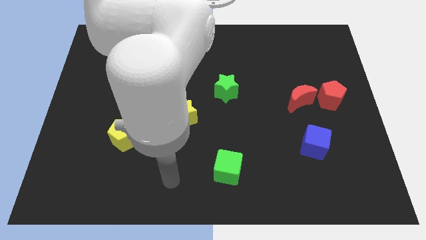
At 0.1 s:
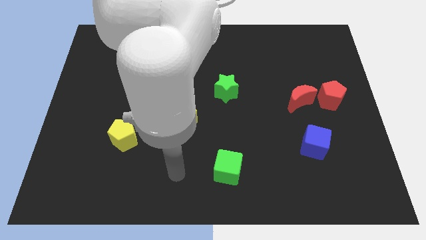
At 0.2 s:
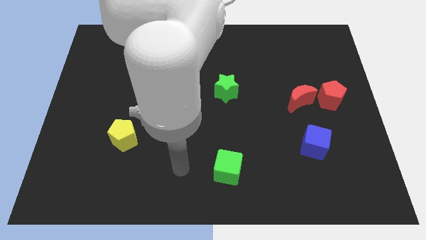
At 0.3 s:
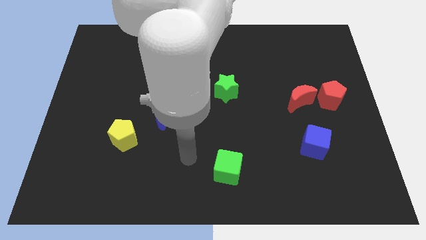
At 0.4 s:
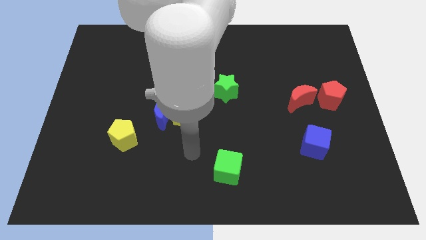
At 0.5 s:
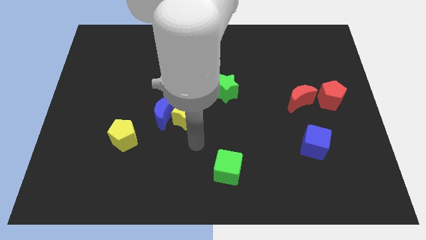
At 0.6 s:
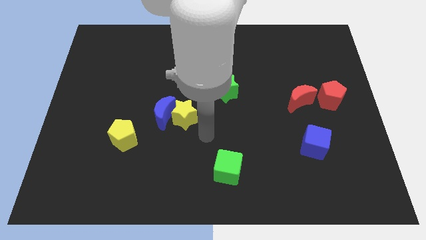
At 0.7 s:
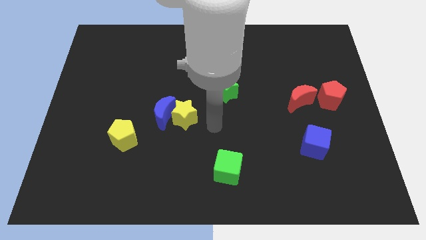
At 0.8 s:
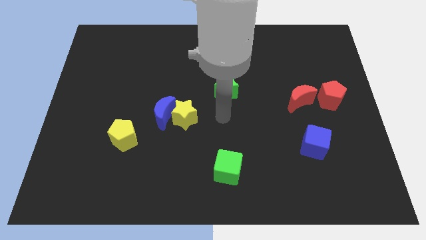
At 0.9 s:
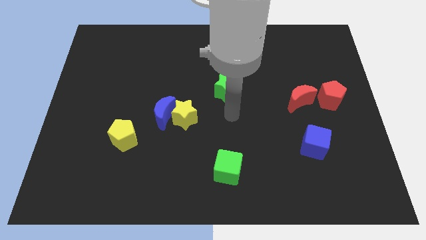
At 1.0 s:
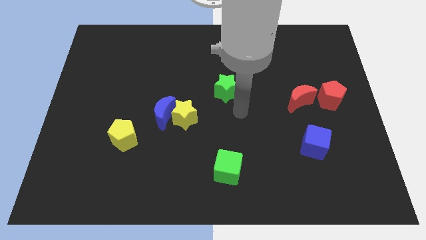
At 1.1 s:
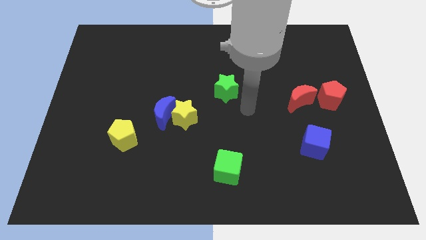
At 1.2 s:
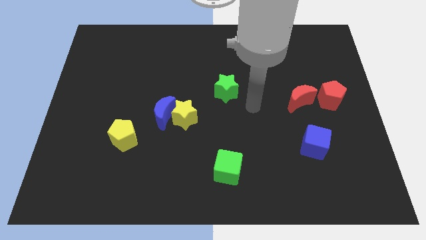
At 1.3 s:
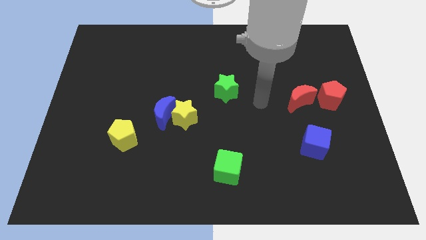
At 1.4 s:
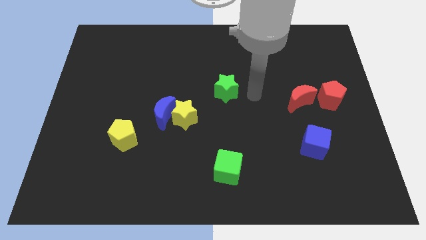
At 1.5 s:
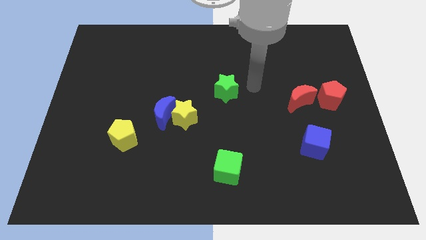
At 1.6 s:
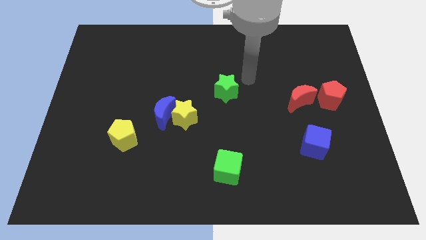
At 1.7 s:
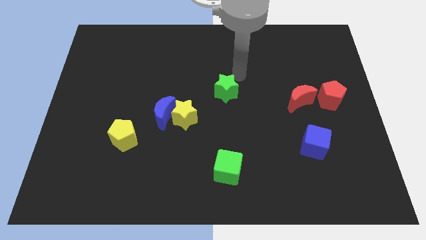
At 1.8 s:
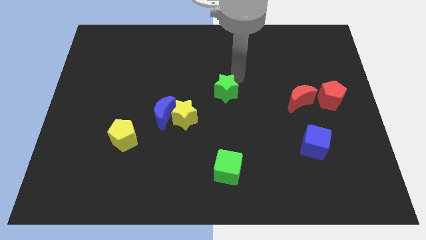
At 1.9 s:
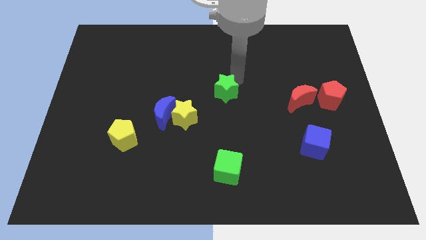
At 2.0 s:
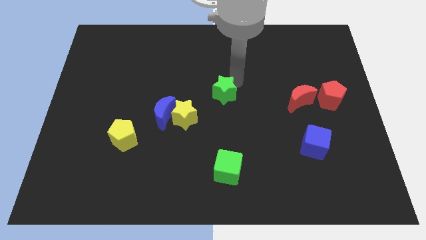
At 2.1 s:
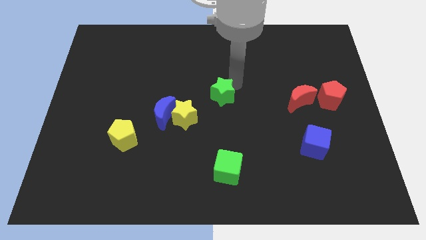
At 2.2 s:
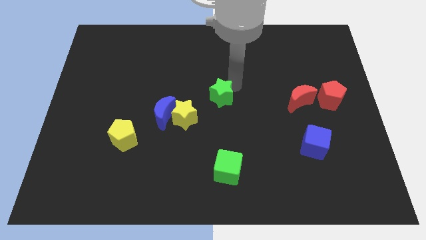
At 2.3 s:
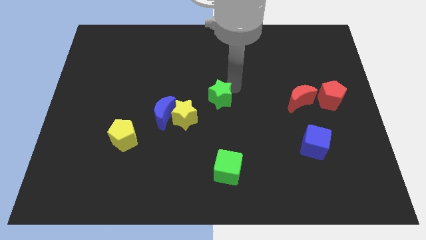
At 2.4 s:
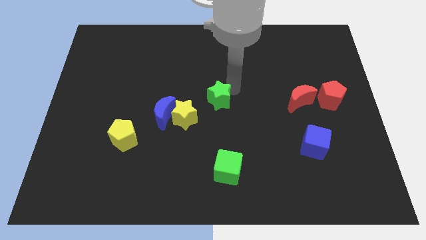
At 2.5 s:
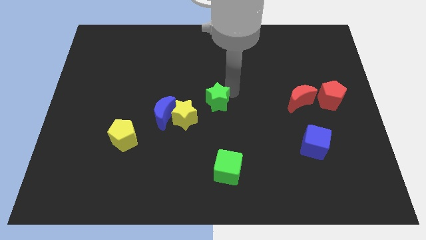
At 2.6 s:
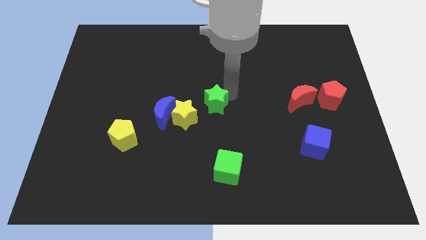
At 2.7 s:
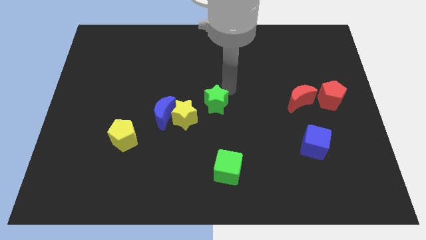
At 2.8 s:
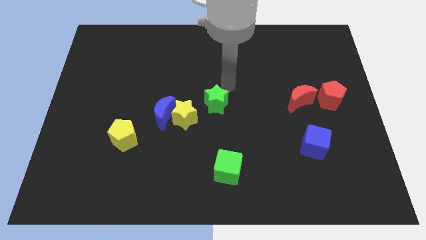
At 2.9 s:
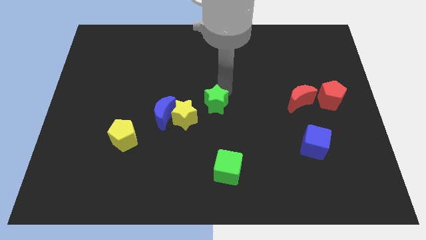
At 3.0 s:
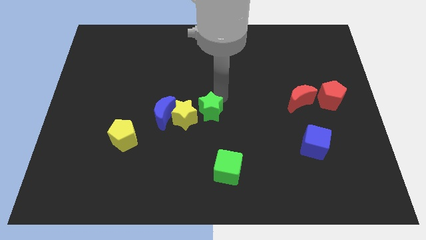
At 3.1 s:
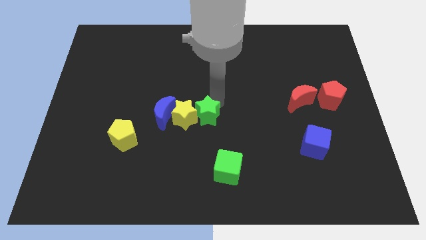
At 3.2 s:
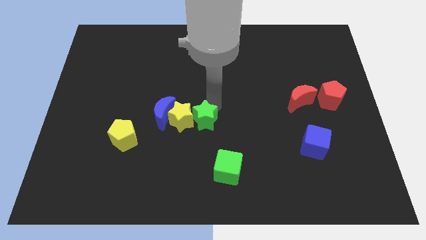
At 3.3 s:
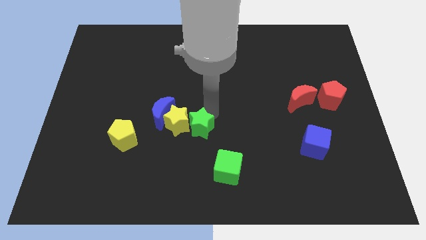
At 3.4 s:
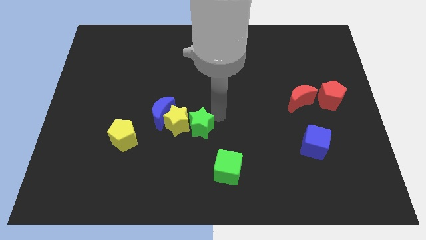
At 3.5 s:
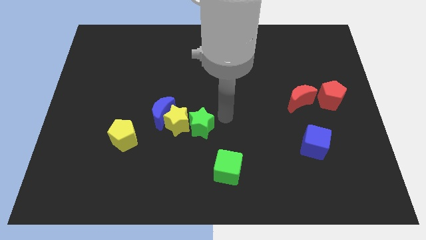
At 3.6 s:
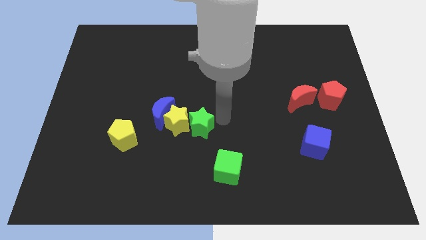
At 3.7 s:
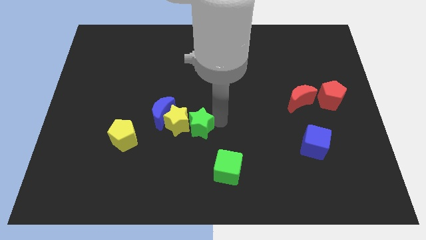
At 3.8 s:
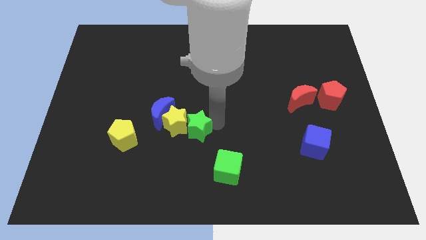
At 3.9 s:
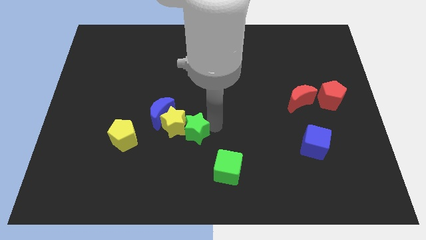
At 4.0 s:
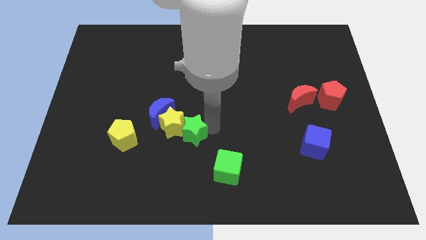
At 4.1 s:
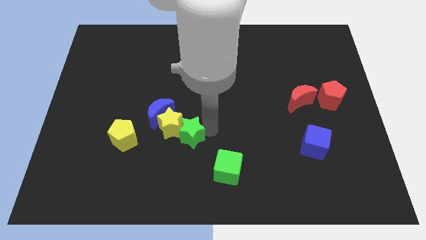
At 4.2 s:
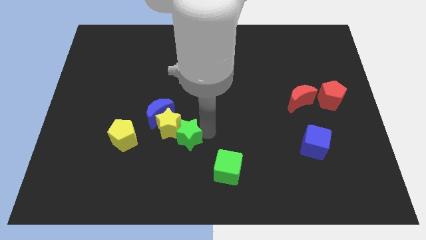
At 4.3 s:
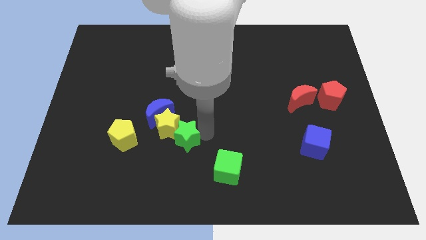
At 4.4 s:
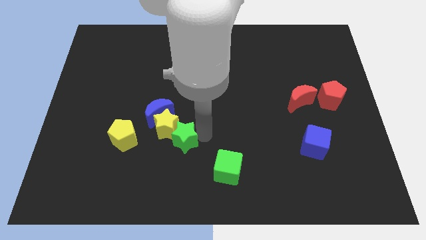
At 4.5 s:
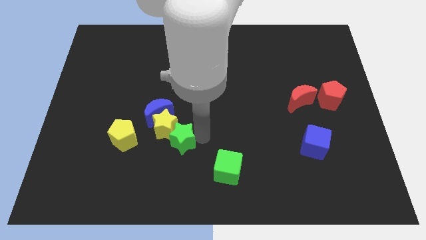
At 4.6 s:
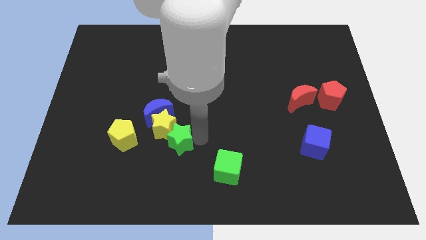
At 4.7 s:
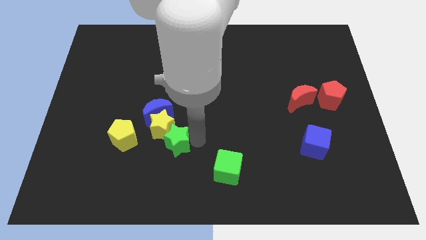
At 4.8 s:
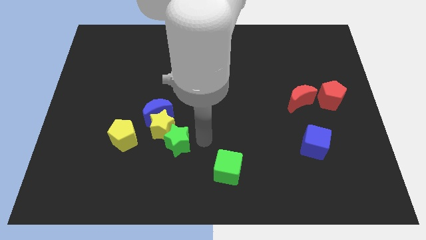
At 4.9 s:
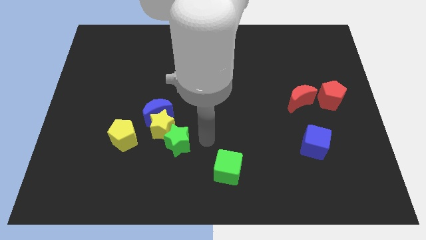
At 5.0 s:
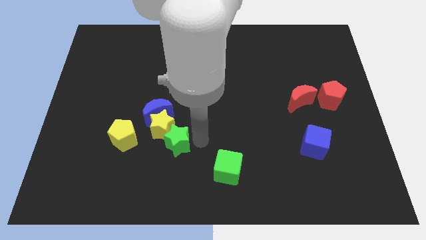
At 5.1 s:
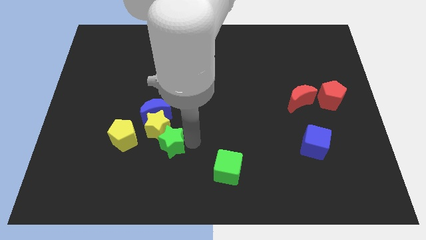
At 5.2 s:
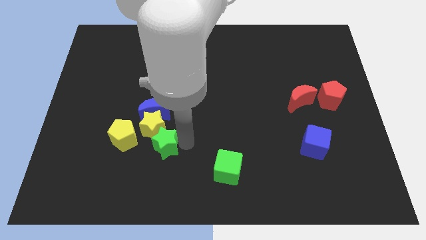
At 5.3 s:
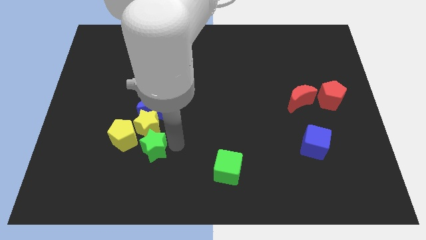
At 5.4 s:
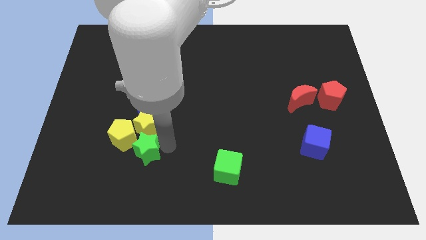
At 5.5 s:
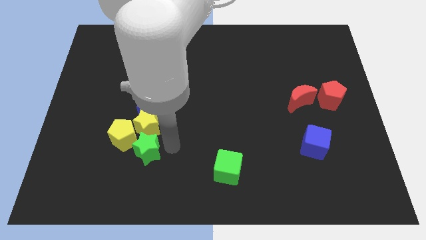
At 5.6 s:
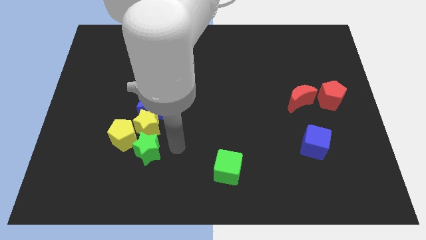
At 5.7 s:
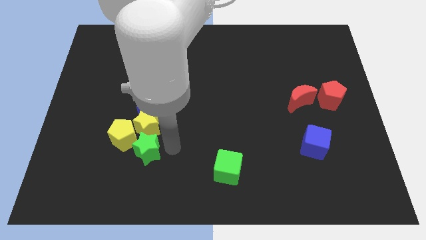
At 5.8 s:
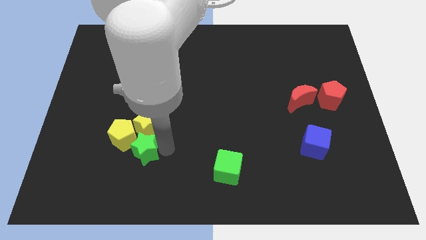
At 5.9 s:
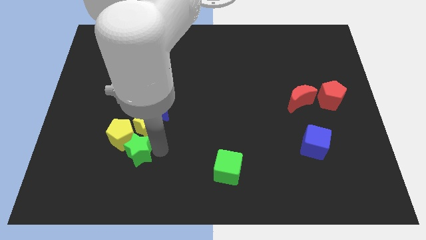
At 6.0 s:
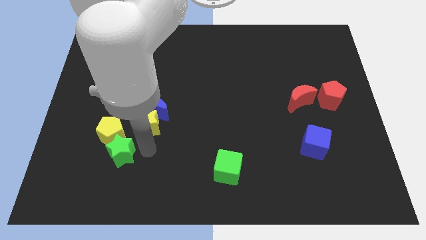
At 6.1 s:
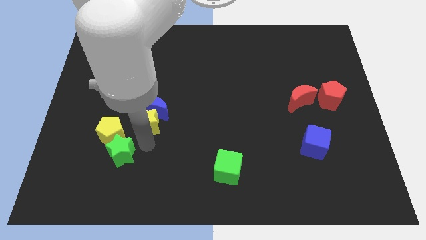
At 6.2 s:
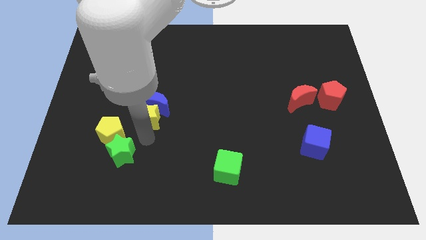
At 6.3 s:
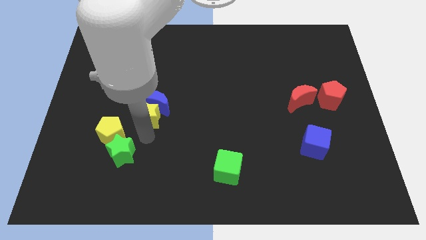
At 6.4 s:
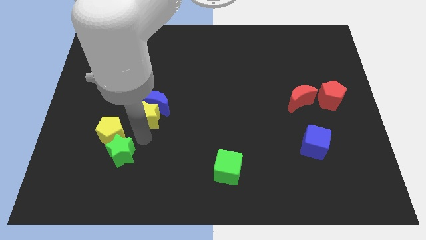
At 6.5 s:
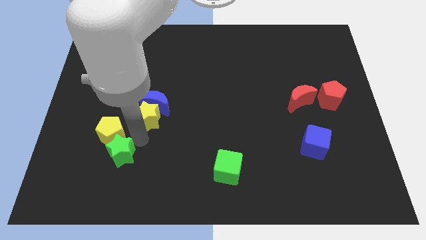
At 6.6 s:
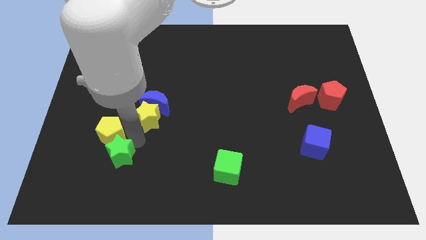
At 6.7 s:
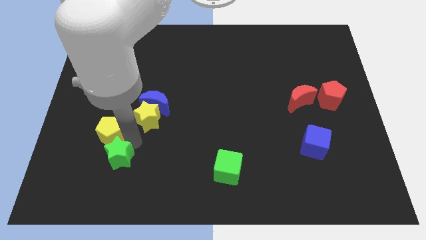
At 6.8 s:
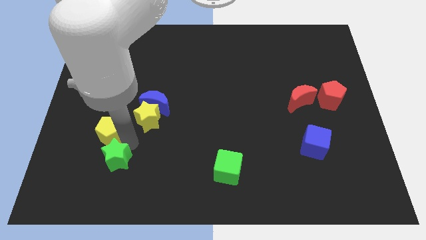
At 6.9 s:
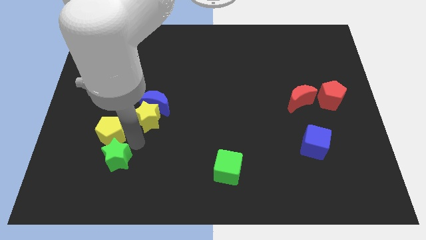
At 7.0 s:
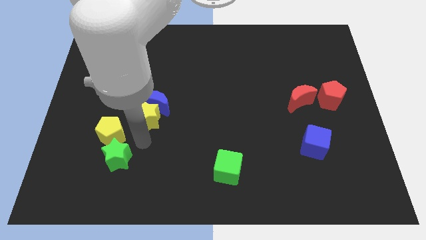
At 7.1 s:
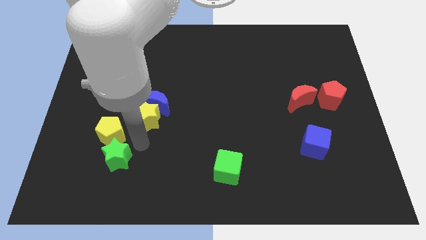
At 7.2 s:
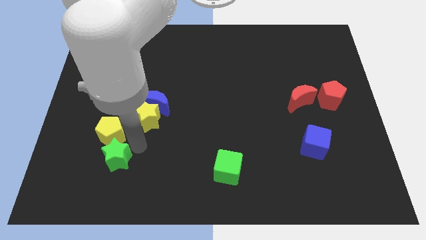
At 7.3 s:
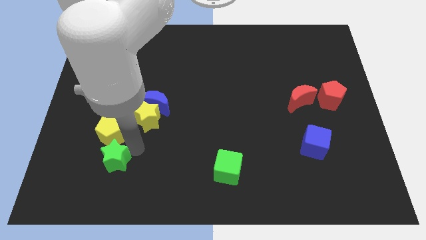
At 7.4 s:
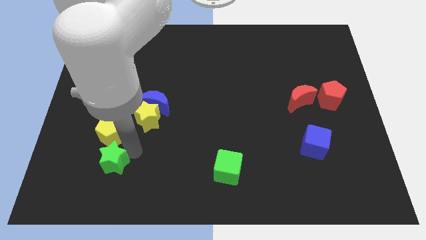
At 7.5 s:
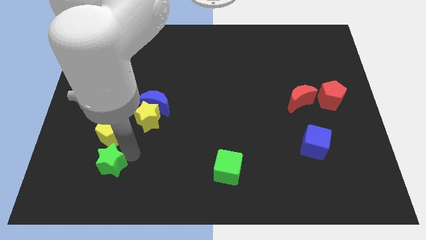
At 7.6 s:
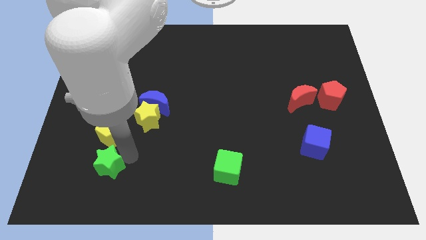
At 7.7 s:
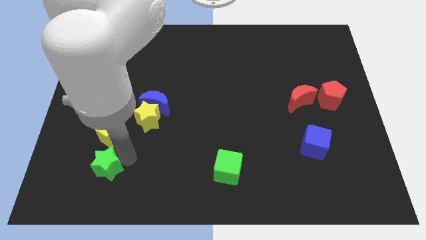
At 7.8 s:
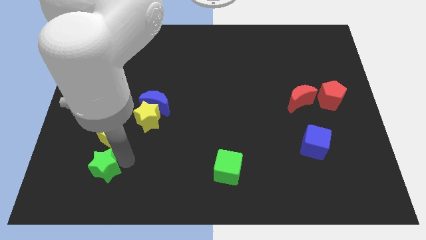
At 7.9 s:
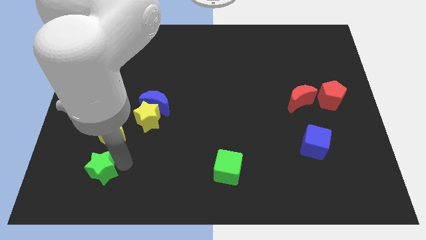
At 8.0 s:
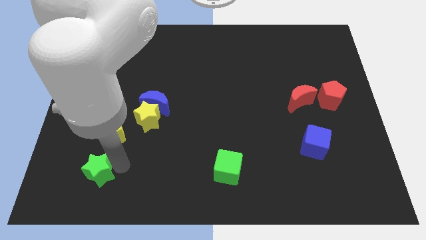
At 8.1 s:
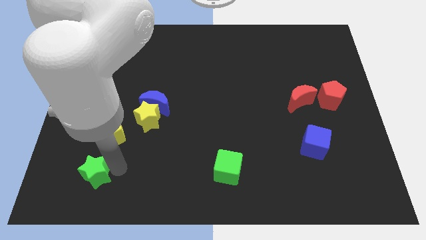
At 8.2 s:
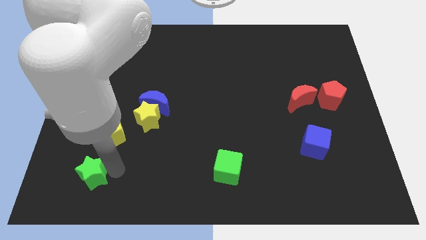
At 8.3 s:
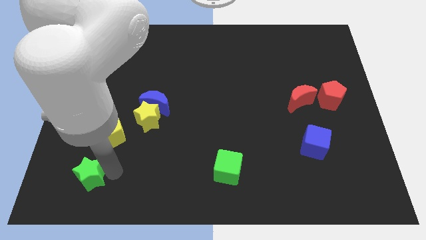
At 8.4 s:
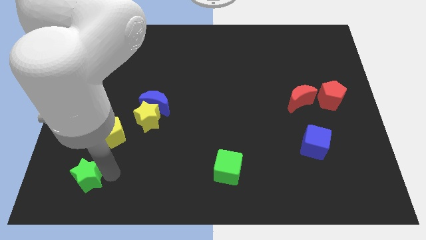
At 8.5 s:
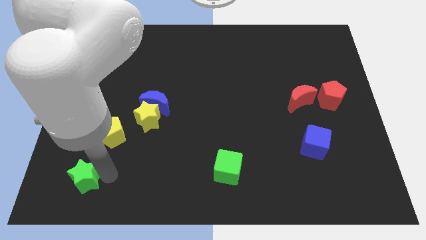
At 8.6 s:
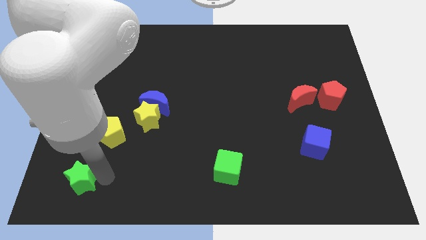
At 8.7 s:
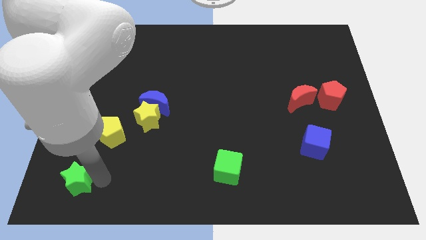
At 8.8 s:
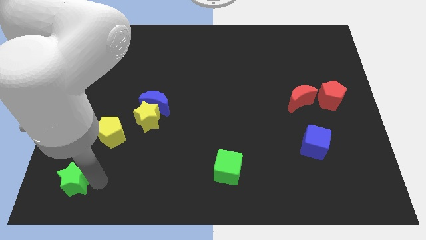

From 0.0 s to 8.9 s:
slide the green star to the bottom left of the board
